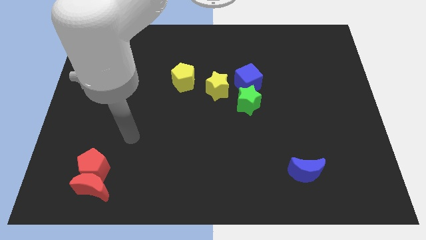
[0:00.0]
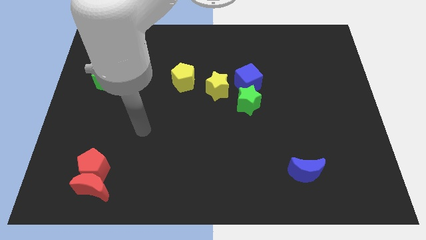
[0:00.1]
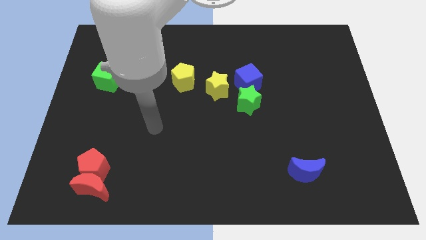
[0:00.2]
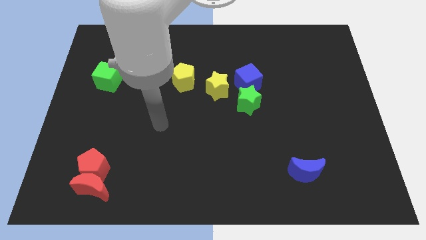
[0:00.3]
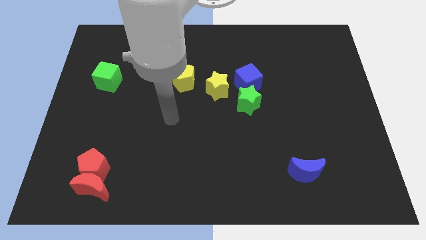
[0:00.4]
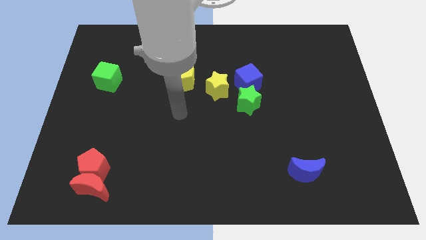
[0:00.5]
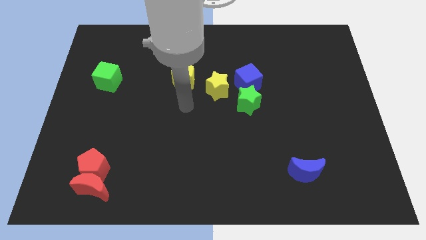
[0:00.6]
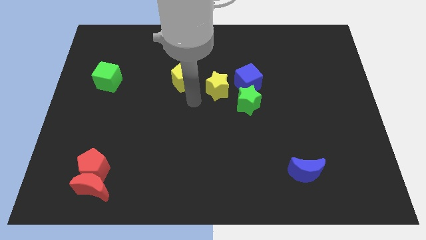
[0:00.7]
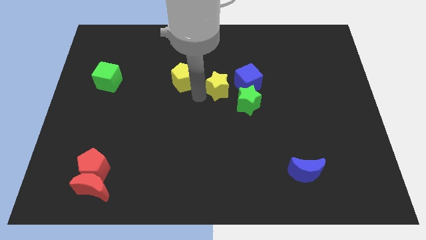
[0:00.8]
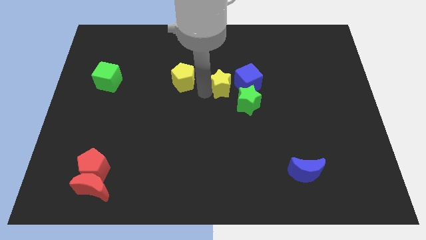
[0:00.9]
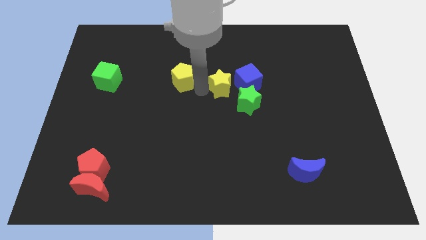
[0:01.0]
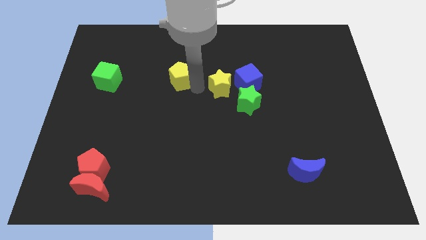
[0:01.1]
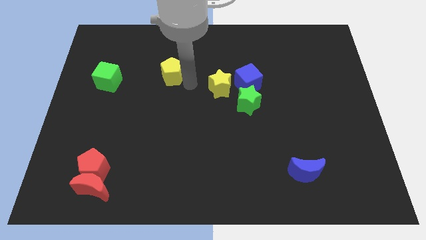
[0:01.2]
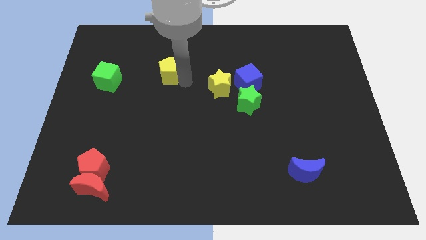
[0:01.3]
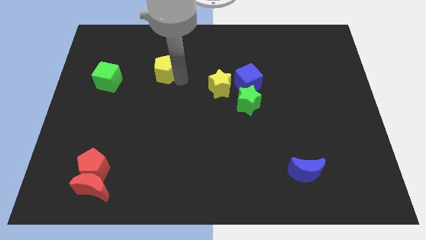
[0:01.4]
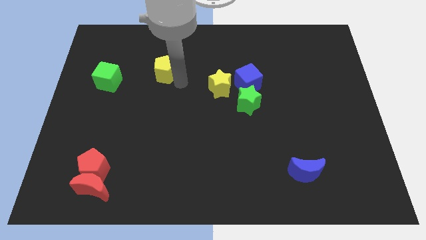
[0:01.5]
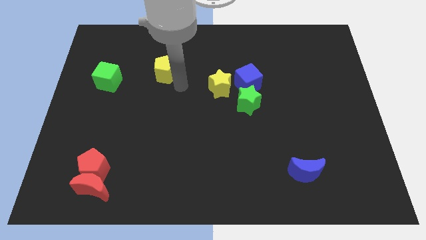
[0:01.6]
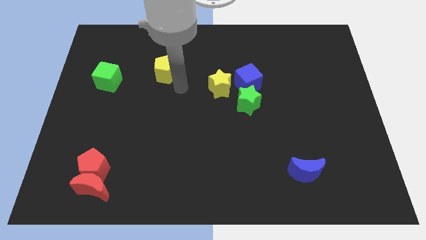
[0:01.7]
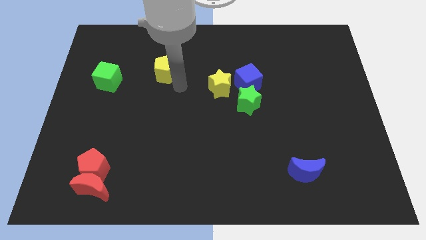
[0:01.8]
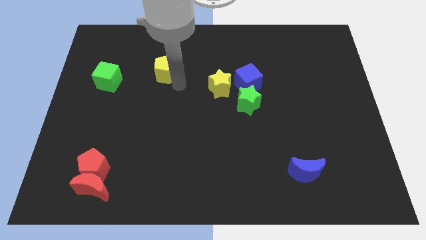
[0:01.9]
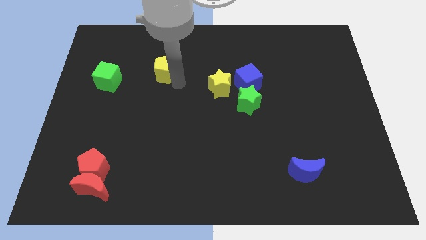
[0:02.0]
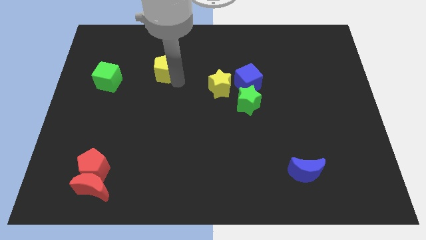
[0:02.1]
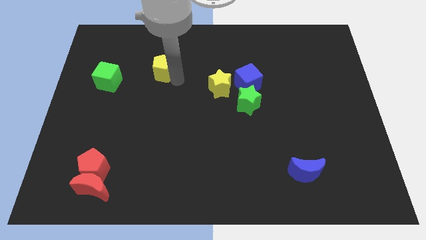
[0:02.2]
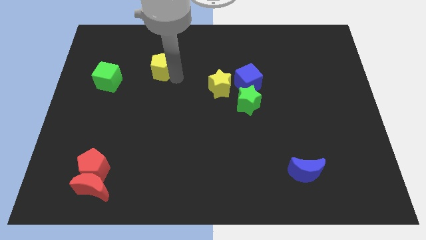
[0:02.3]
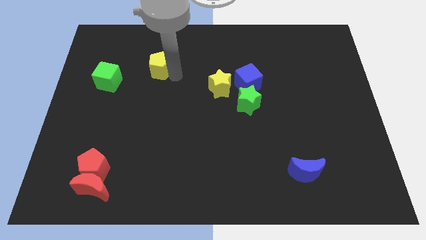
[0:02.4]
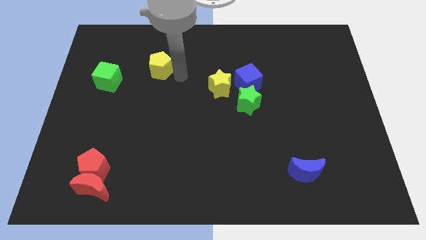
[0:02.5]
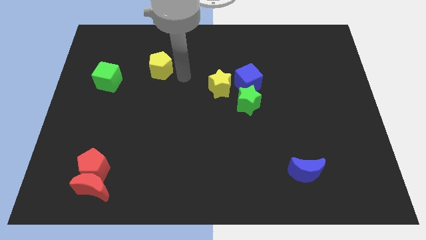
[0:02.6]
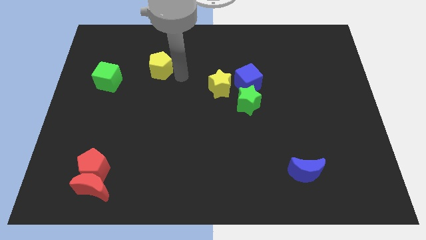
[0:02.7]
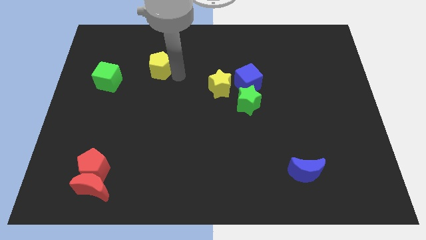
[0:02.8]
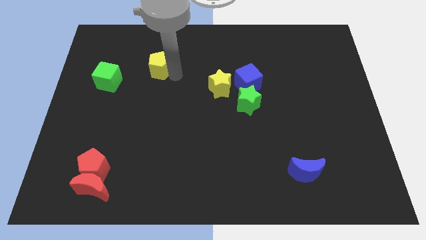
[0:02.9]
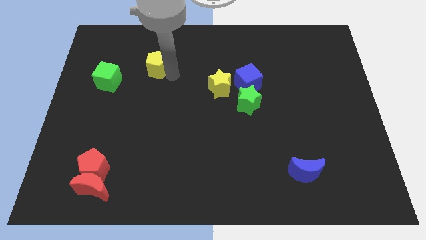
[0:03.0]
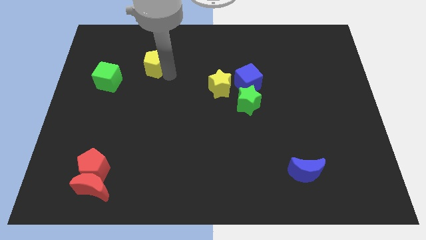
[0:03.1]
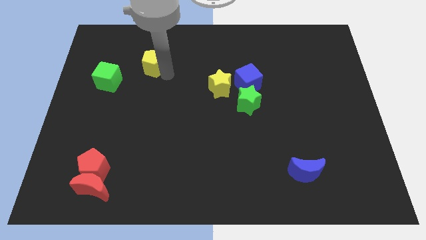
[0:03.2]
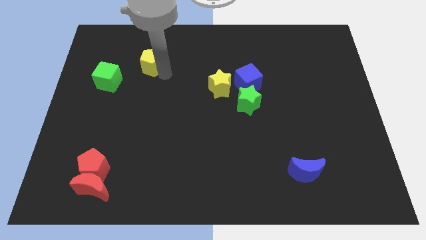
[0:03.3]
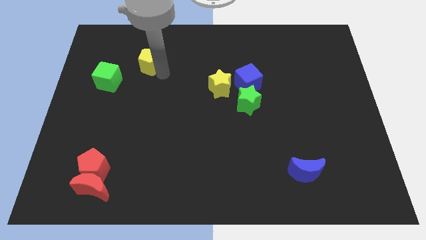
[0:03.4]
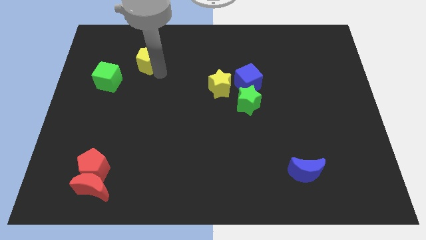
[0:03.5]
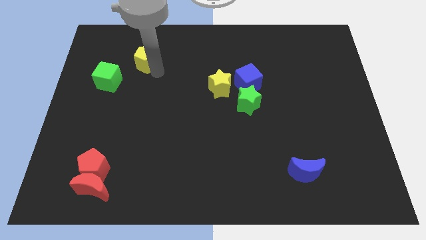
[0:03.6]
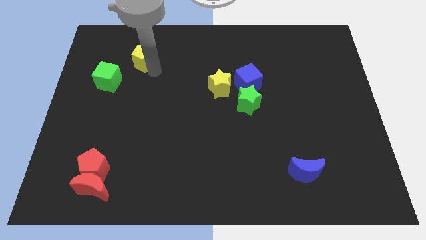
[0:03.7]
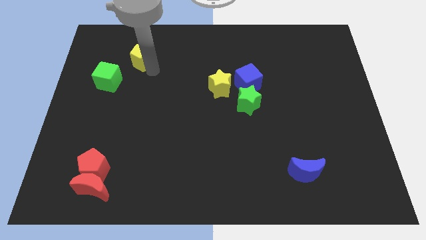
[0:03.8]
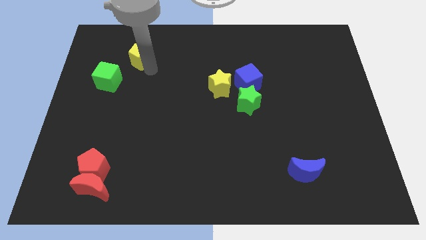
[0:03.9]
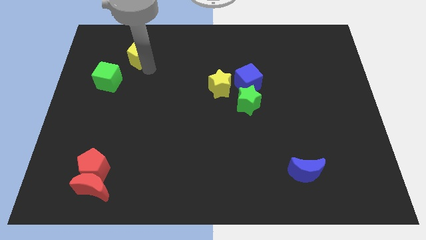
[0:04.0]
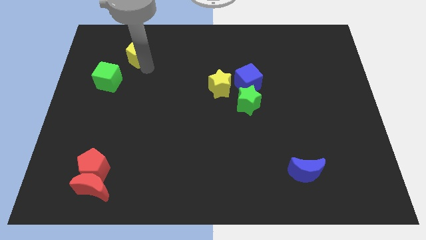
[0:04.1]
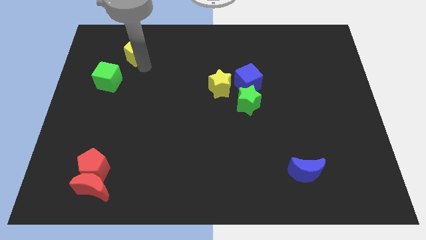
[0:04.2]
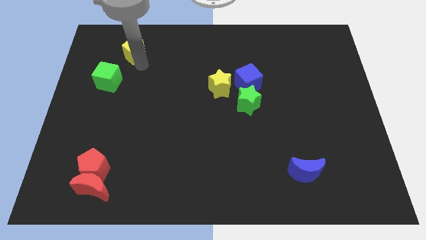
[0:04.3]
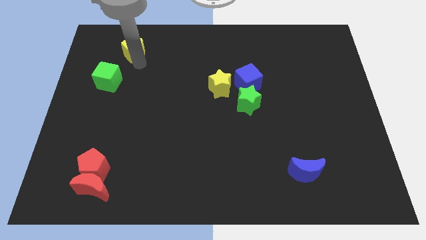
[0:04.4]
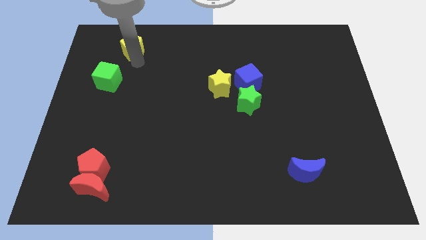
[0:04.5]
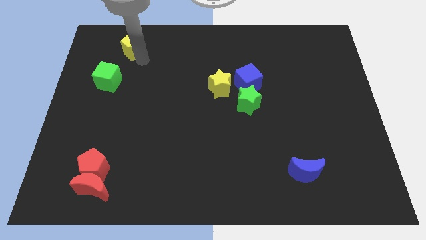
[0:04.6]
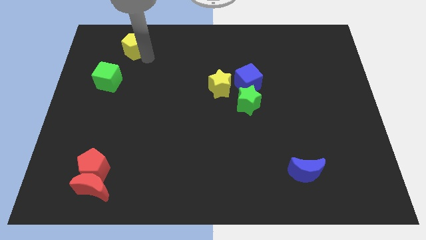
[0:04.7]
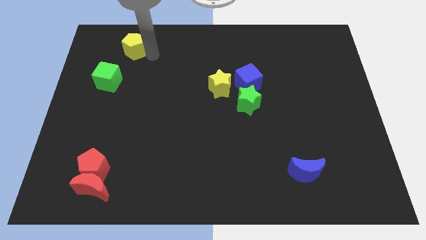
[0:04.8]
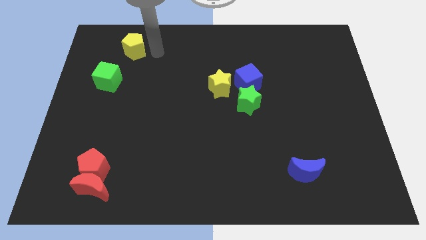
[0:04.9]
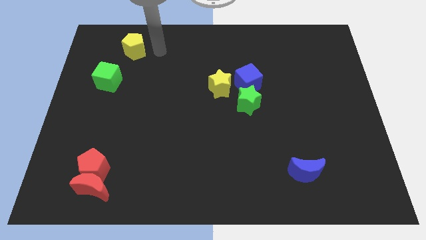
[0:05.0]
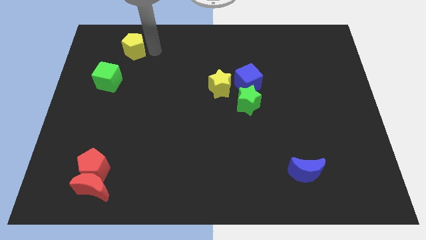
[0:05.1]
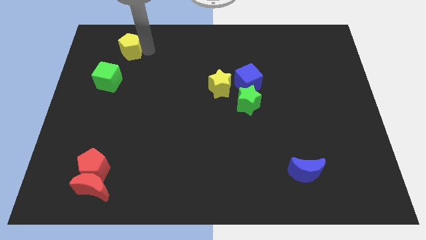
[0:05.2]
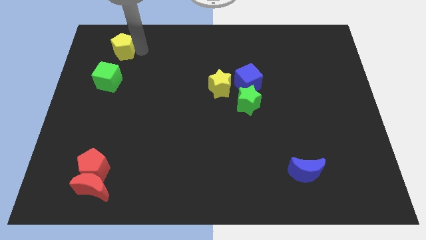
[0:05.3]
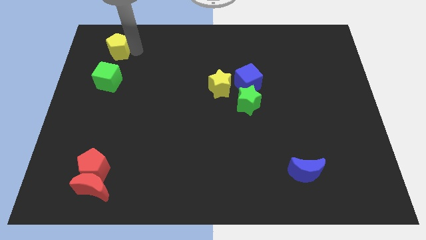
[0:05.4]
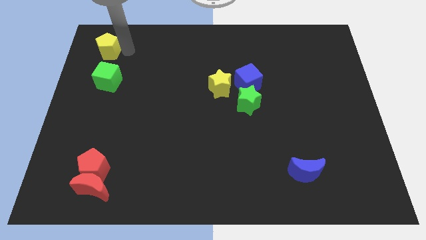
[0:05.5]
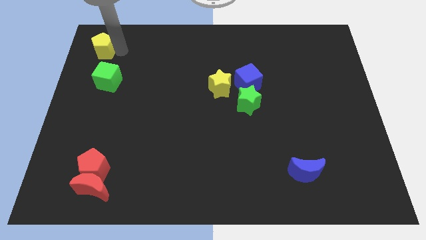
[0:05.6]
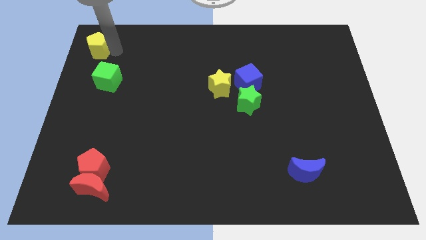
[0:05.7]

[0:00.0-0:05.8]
put the yellow pentagon to the top left

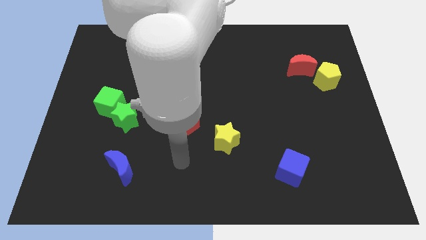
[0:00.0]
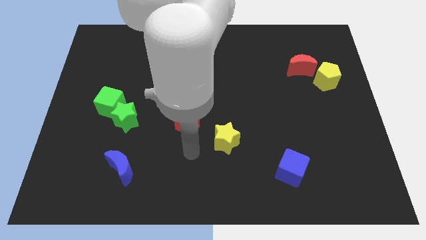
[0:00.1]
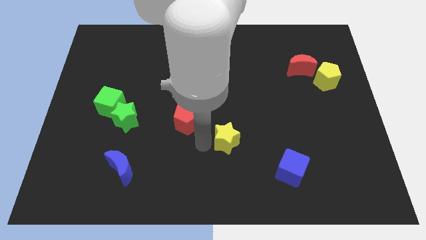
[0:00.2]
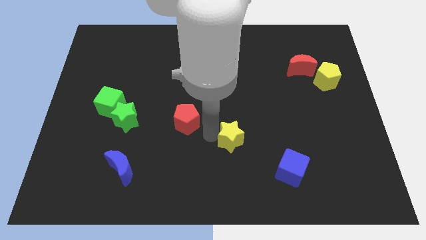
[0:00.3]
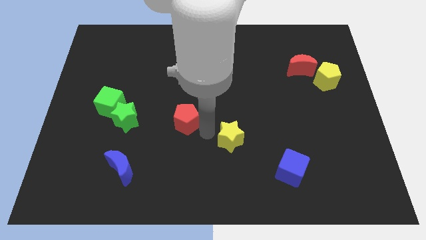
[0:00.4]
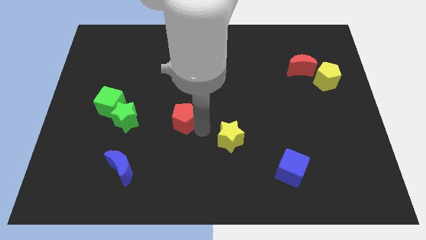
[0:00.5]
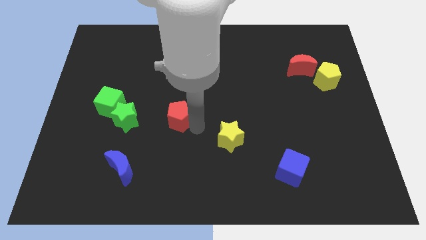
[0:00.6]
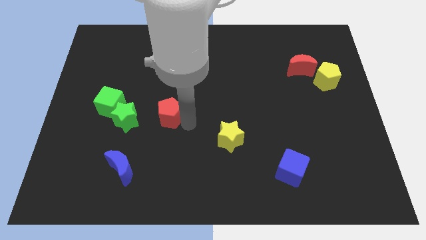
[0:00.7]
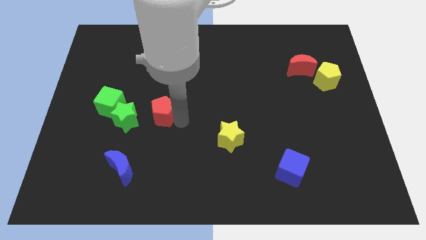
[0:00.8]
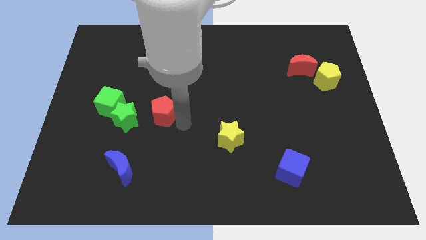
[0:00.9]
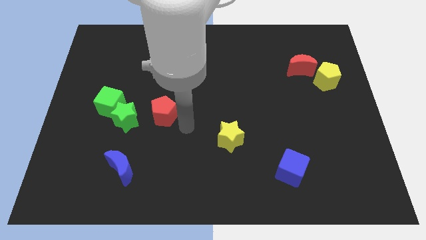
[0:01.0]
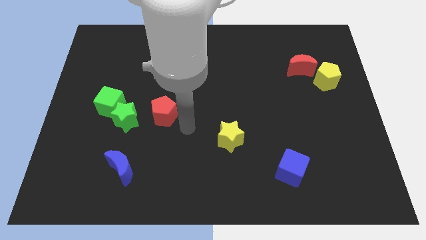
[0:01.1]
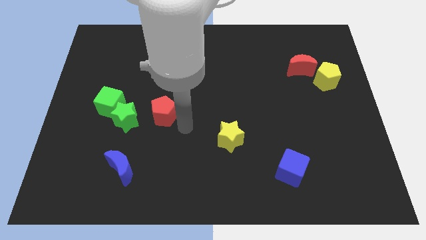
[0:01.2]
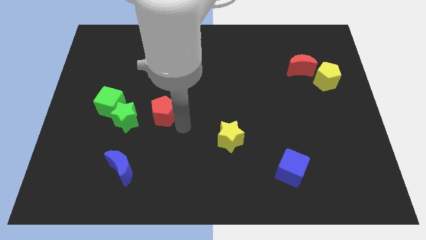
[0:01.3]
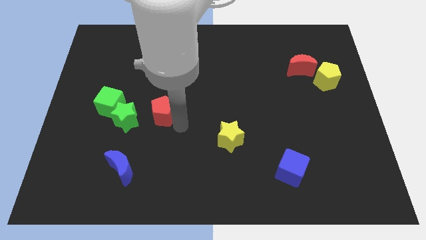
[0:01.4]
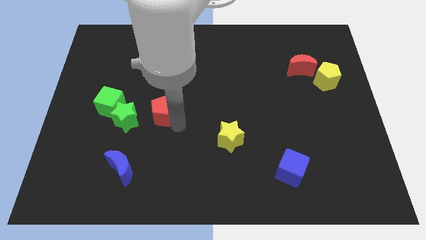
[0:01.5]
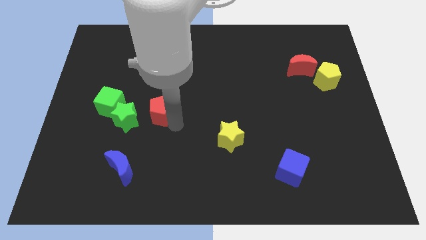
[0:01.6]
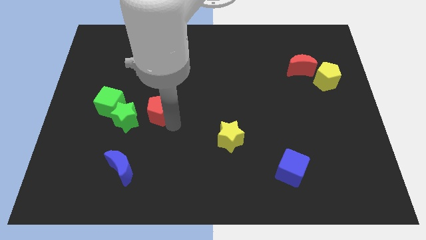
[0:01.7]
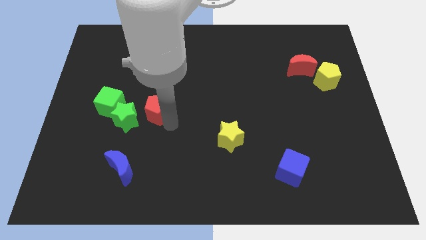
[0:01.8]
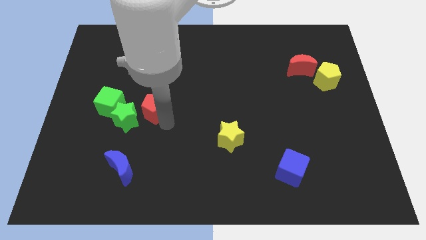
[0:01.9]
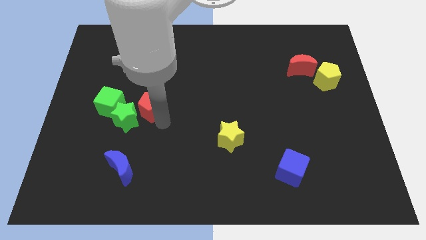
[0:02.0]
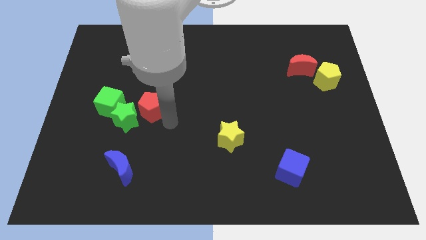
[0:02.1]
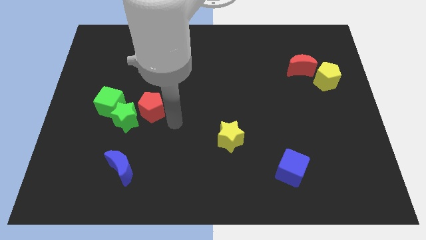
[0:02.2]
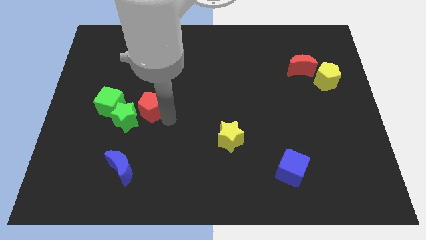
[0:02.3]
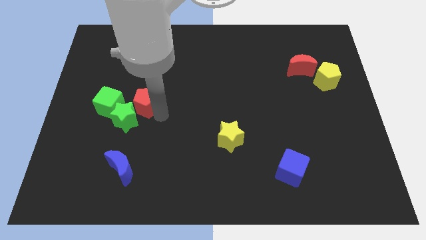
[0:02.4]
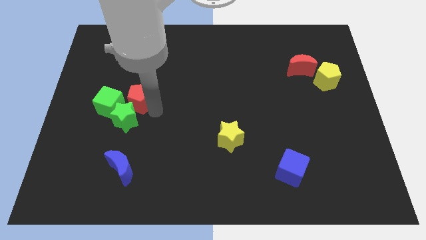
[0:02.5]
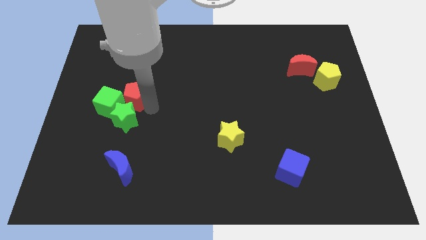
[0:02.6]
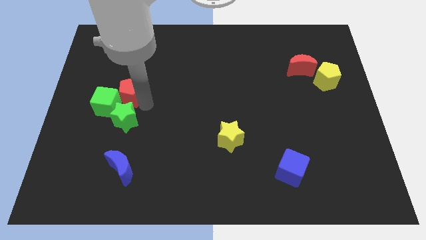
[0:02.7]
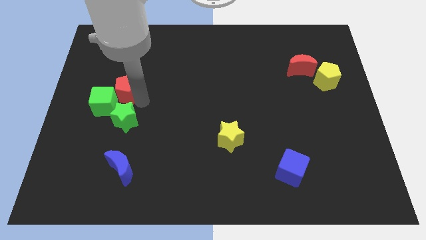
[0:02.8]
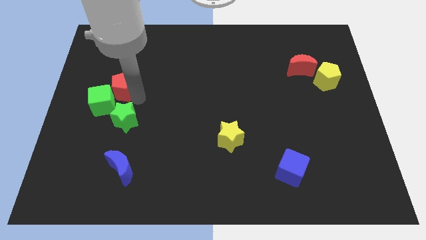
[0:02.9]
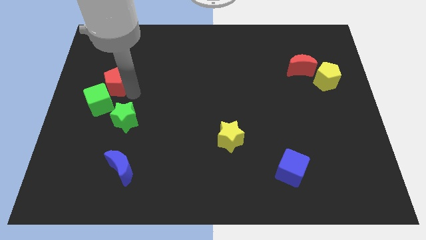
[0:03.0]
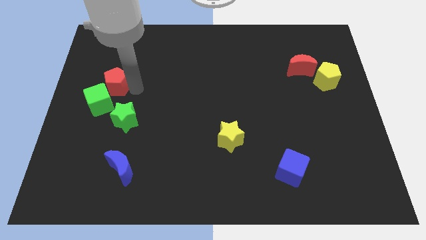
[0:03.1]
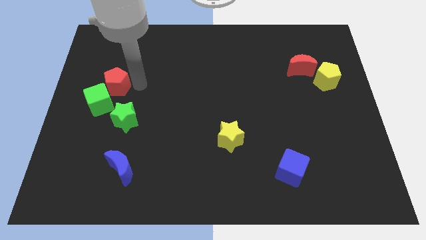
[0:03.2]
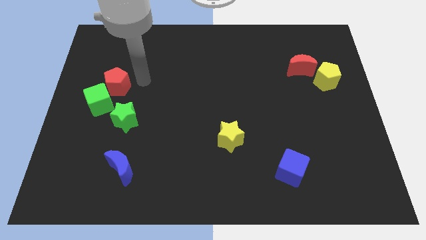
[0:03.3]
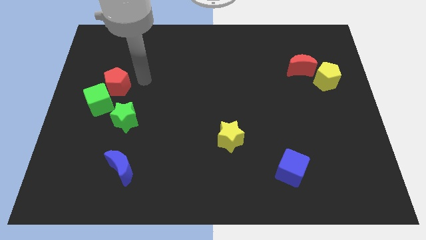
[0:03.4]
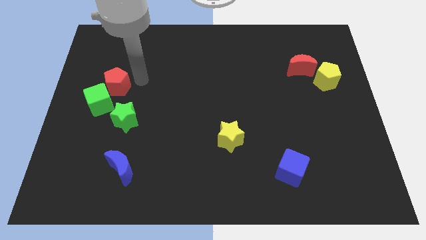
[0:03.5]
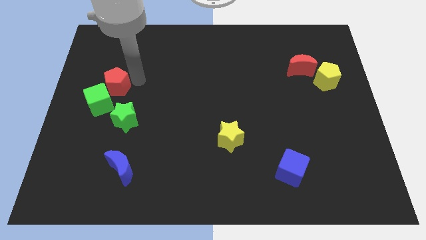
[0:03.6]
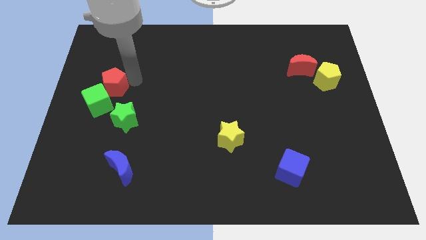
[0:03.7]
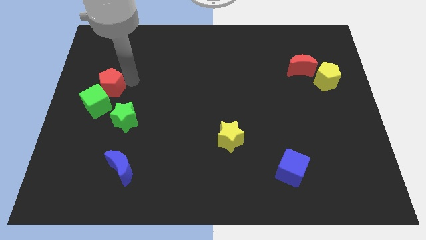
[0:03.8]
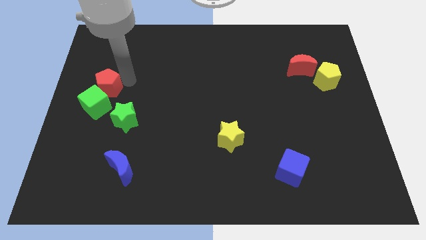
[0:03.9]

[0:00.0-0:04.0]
move the red pentagon to the left side
